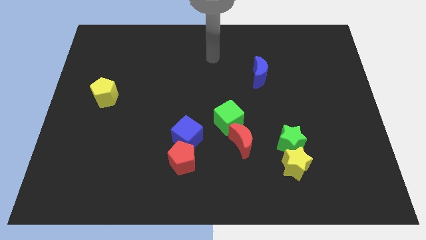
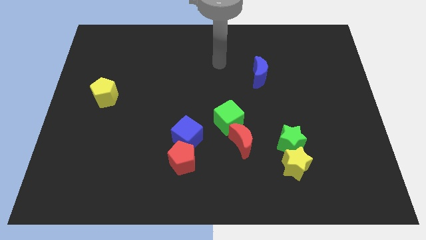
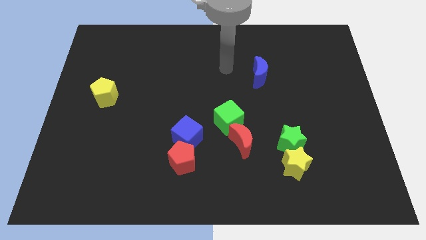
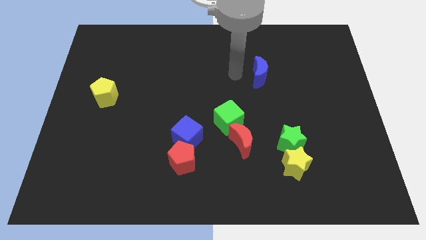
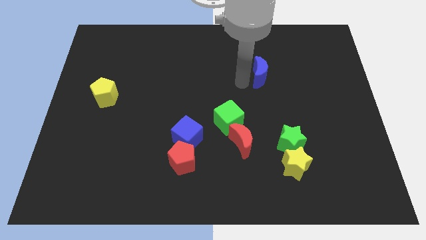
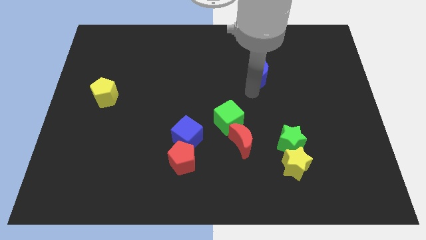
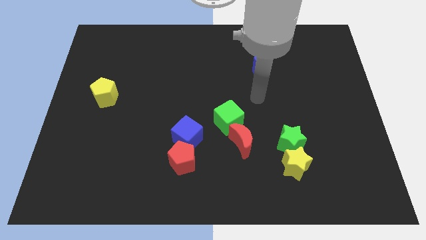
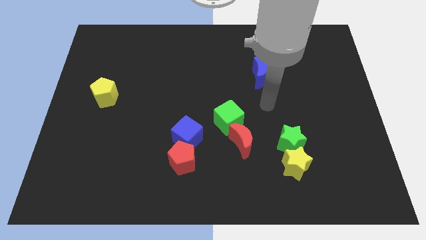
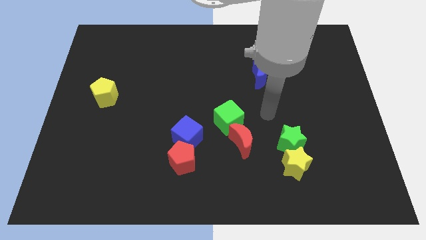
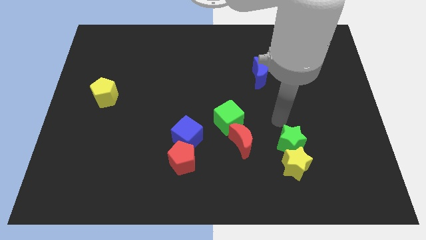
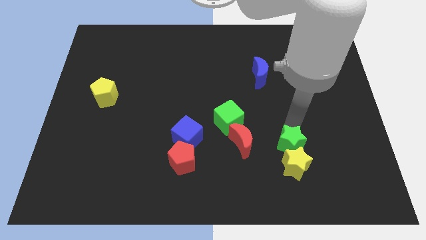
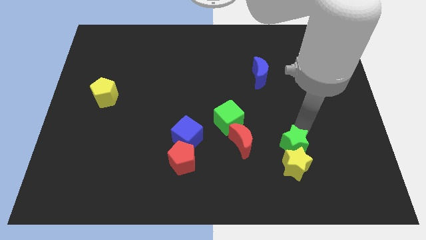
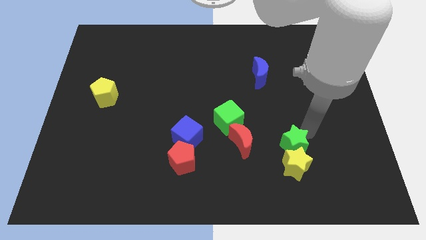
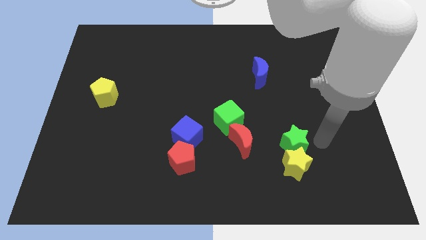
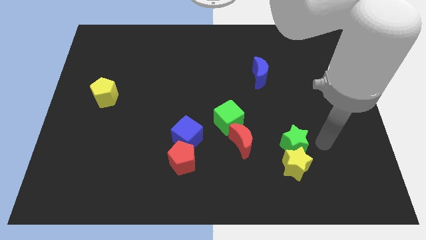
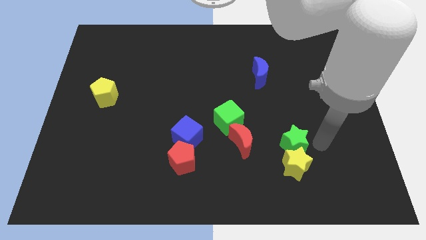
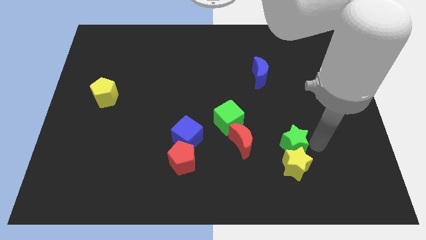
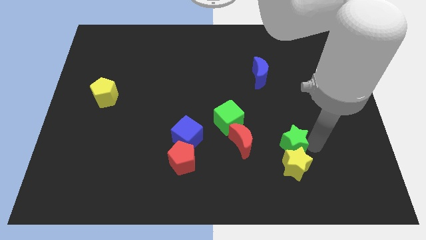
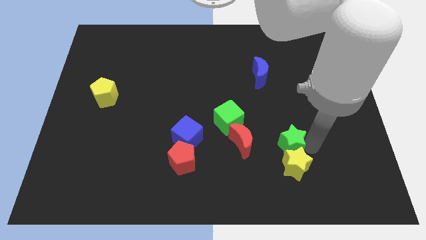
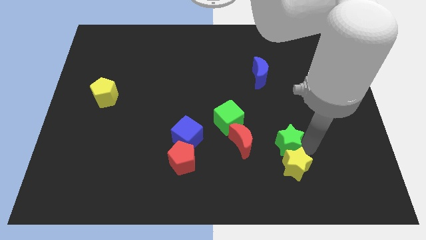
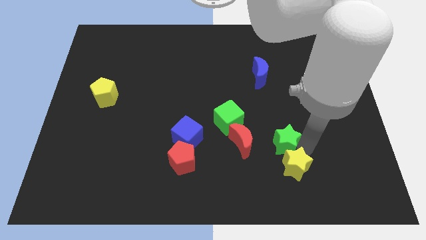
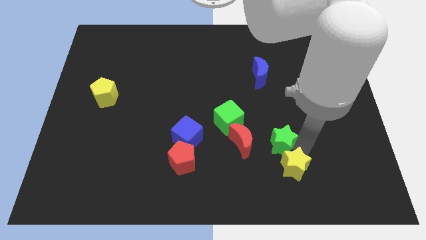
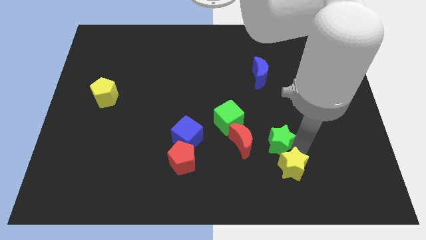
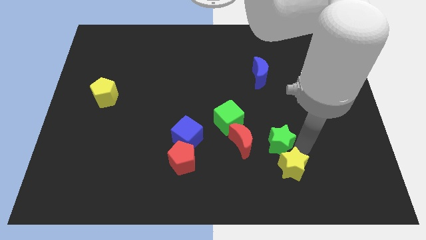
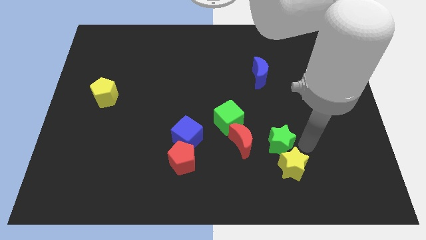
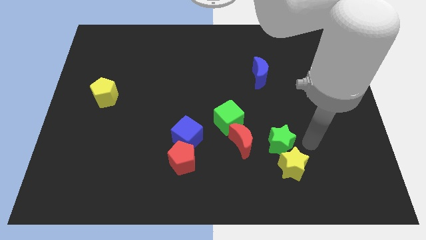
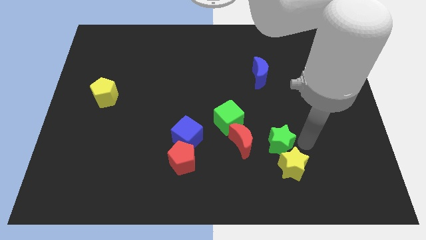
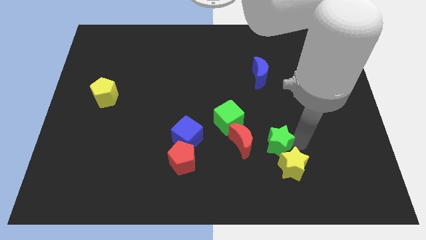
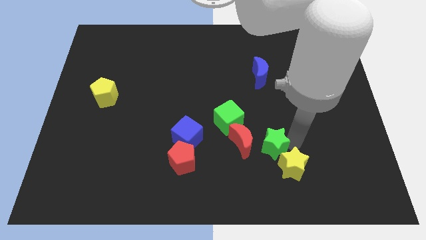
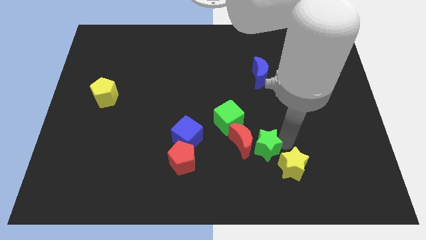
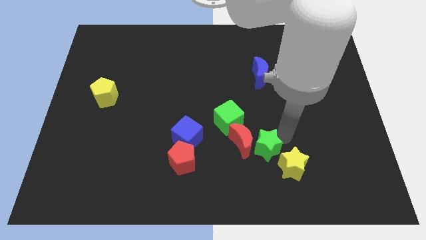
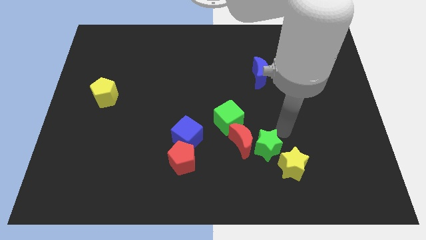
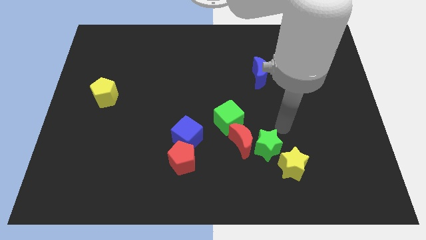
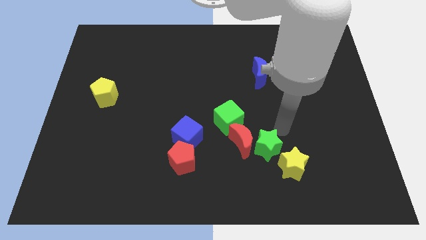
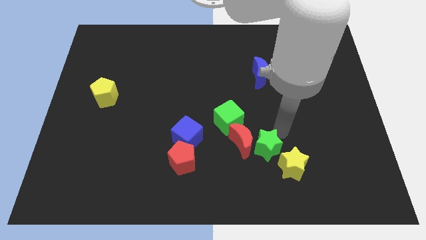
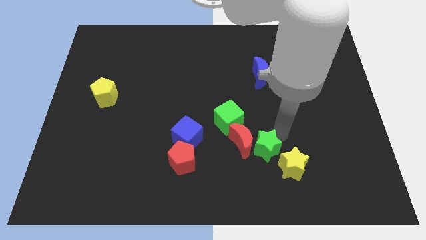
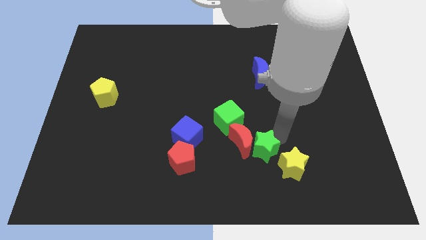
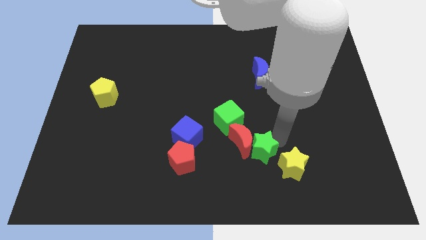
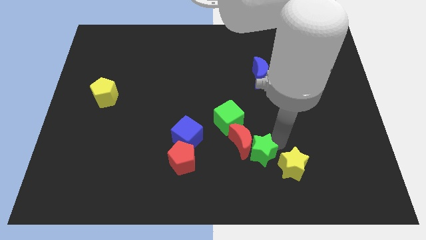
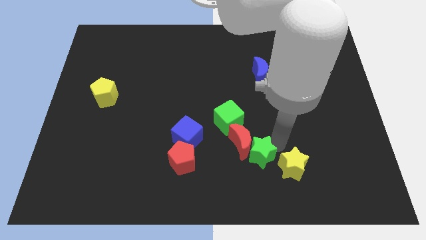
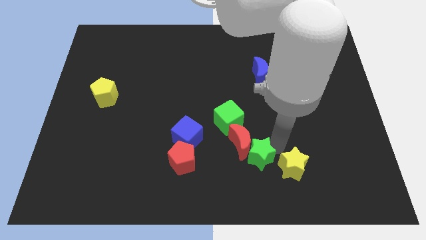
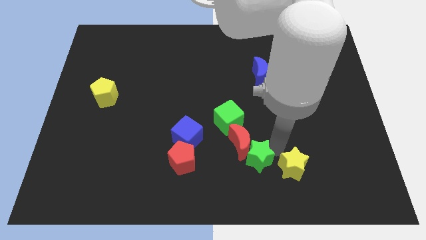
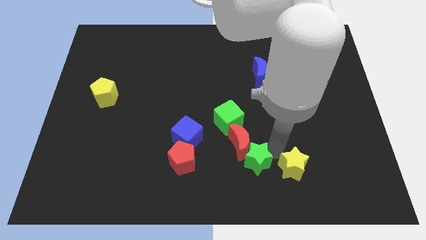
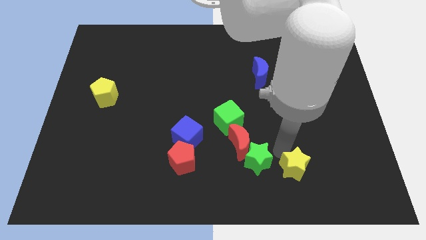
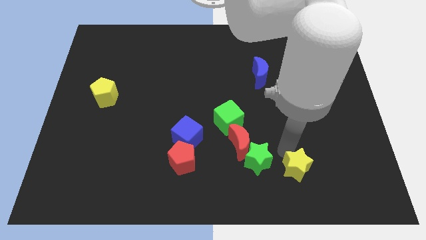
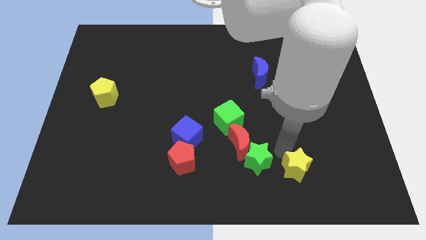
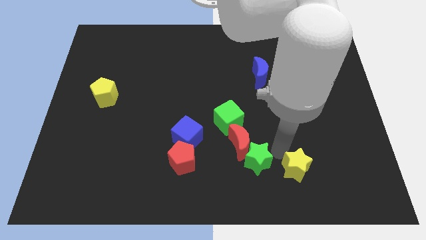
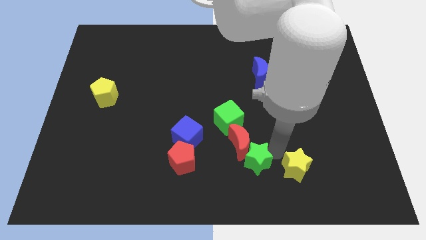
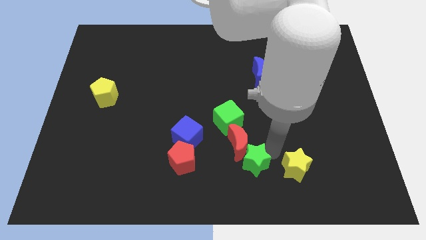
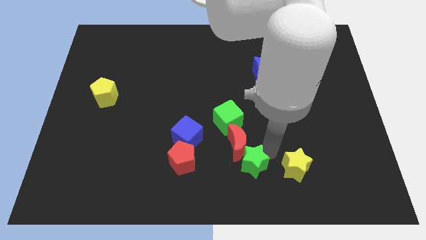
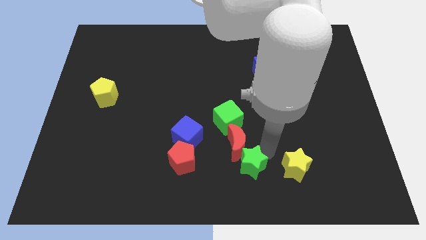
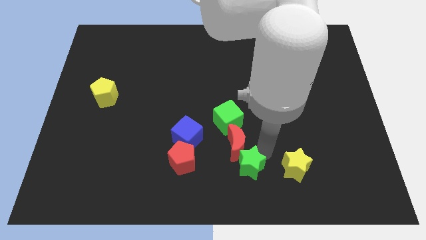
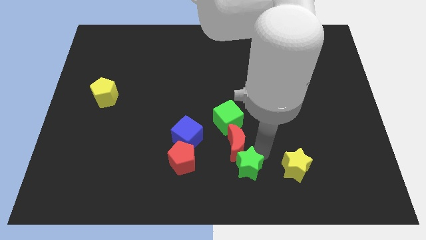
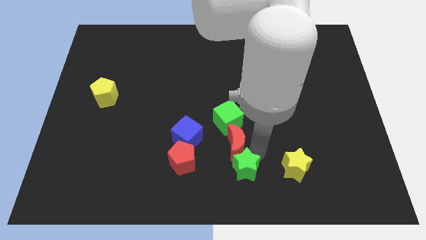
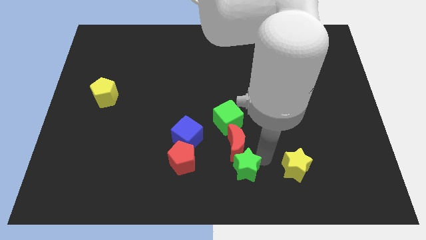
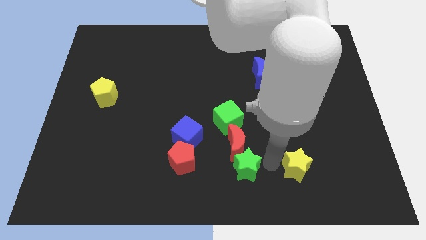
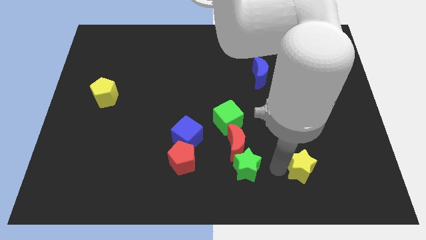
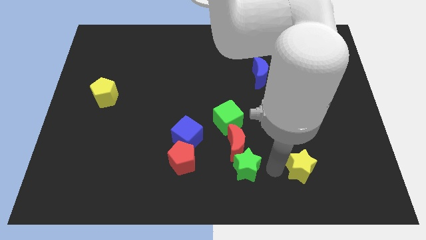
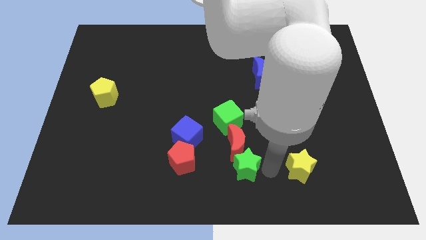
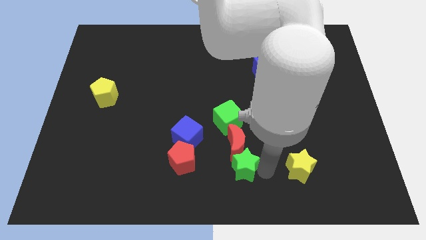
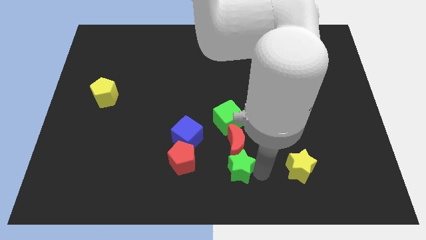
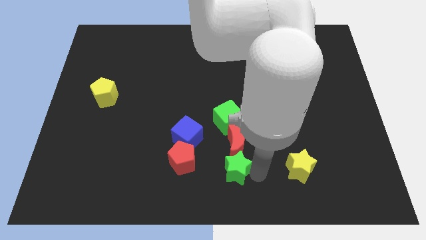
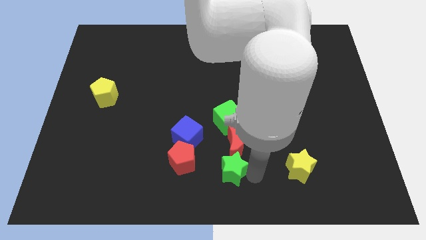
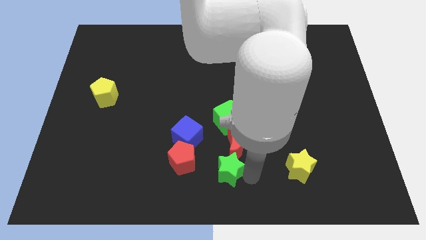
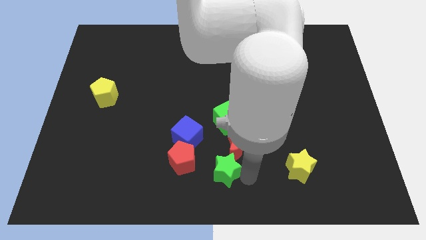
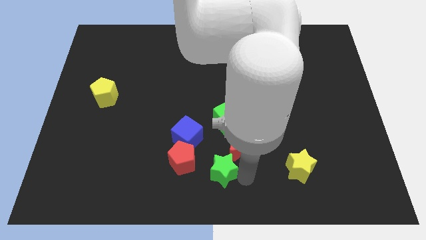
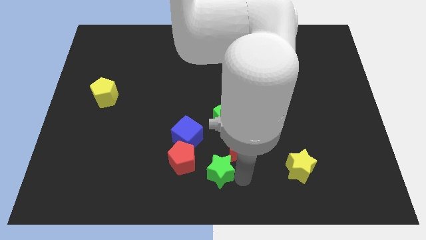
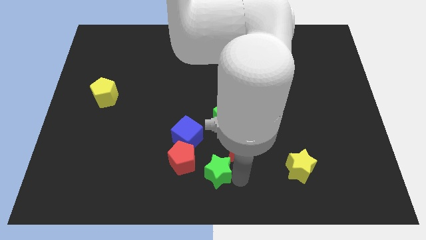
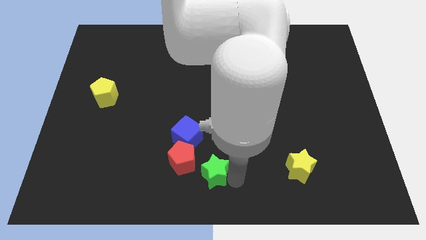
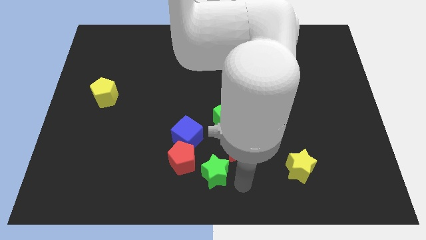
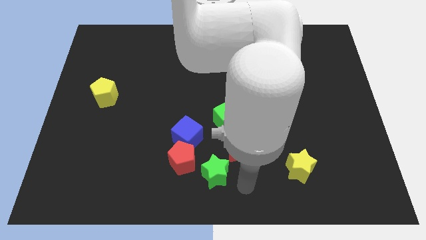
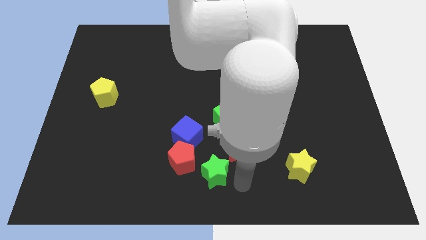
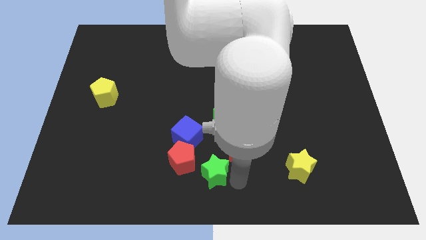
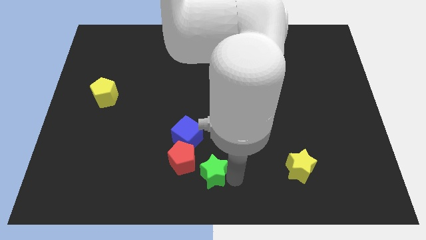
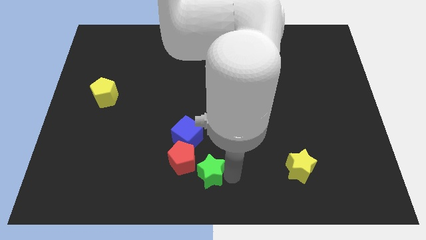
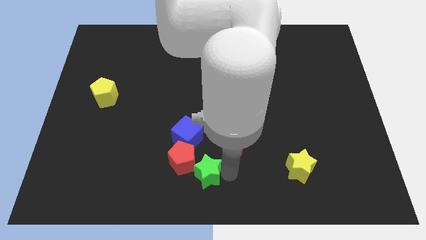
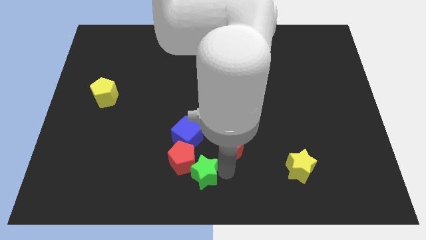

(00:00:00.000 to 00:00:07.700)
slide the green star close to the red pentagon
